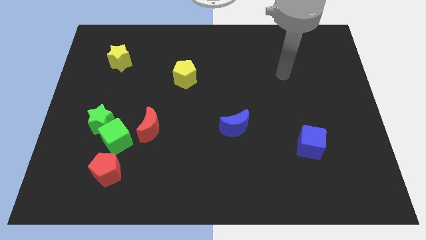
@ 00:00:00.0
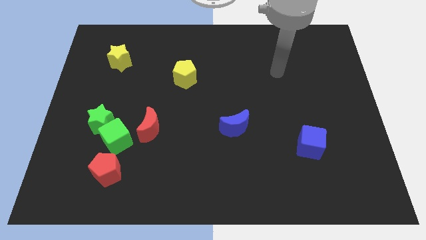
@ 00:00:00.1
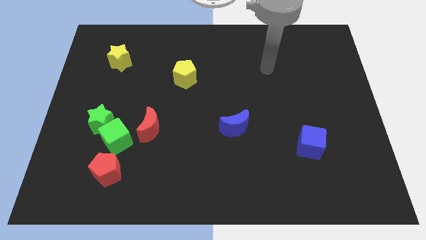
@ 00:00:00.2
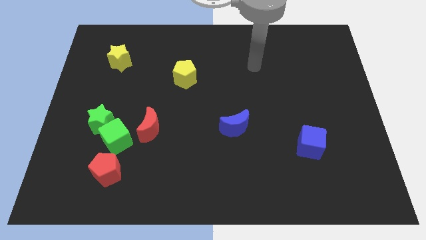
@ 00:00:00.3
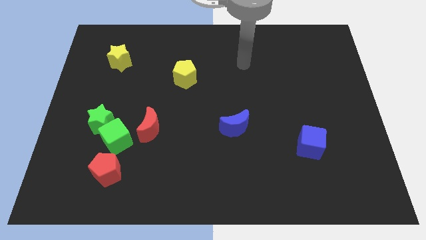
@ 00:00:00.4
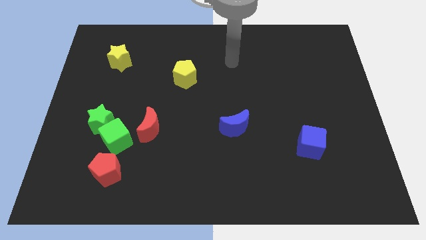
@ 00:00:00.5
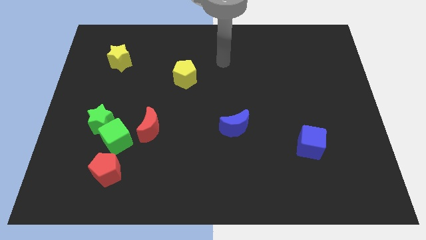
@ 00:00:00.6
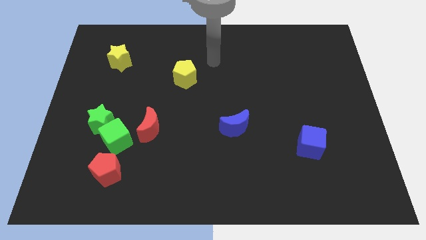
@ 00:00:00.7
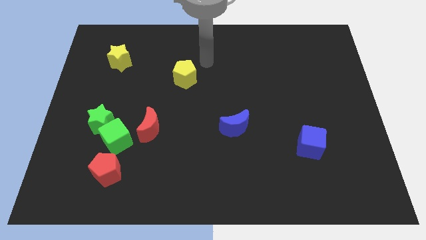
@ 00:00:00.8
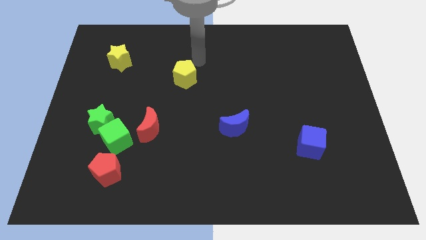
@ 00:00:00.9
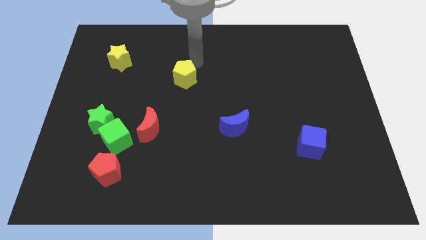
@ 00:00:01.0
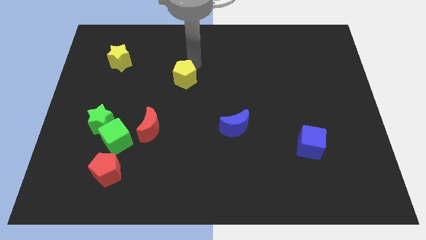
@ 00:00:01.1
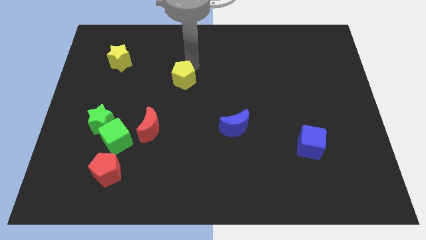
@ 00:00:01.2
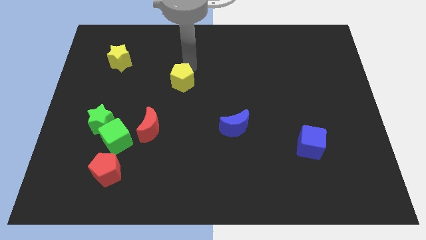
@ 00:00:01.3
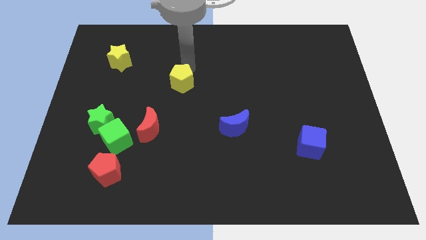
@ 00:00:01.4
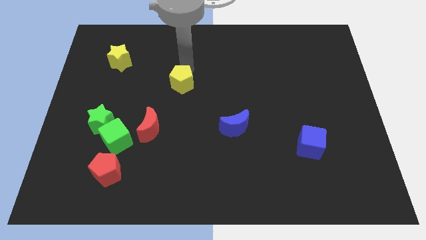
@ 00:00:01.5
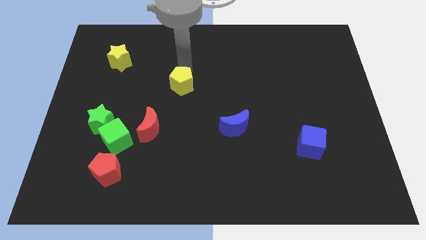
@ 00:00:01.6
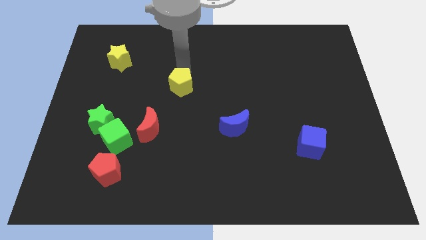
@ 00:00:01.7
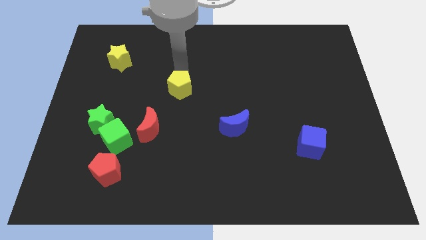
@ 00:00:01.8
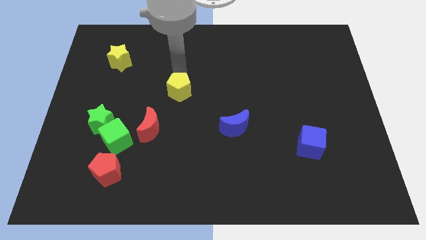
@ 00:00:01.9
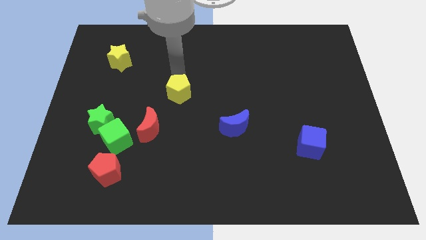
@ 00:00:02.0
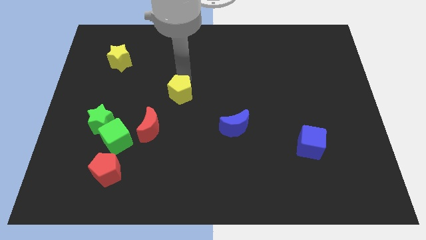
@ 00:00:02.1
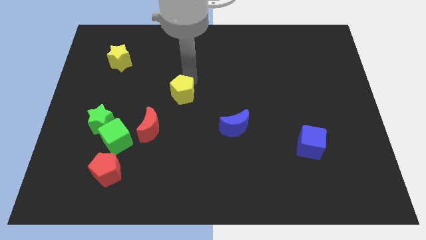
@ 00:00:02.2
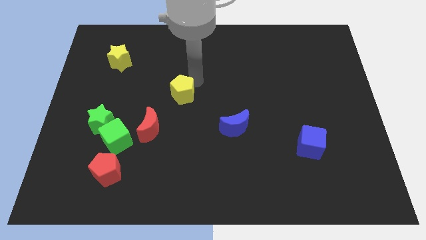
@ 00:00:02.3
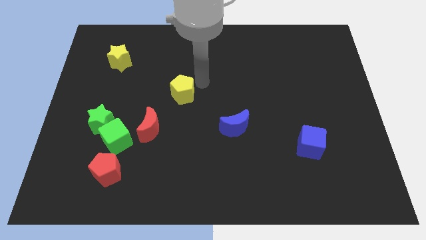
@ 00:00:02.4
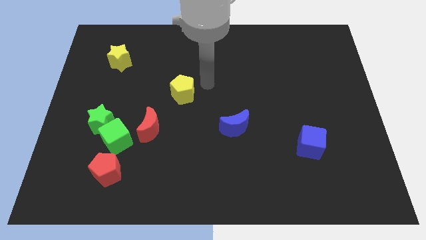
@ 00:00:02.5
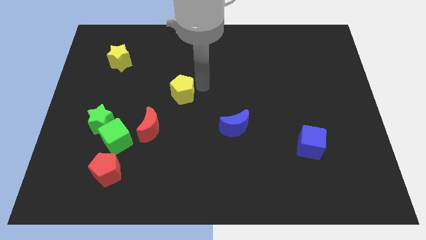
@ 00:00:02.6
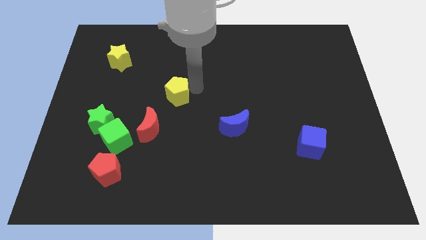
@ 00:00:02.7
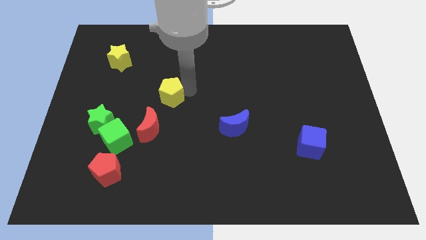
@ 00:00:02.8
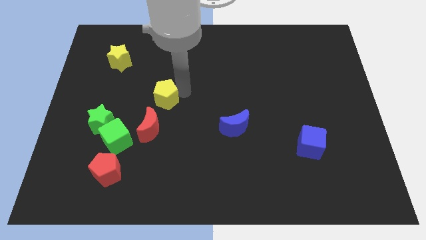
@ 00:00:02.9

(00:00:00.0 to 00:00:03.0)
slightly slide the yellow pentagon downwards and left

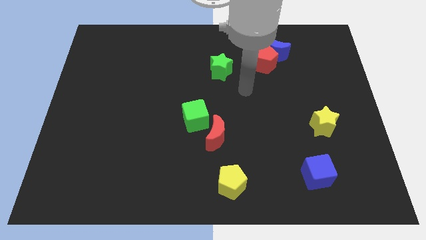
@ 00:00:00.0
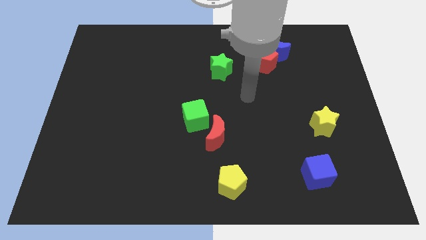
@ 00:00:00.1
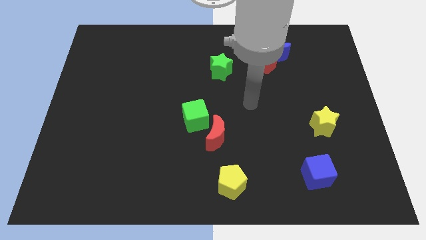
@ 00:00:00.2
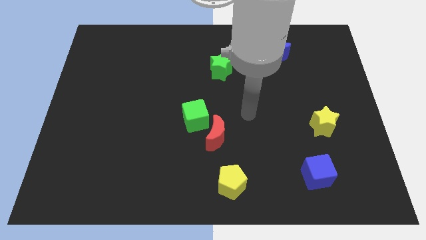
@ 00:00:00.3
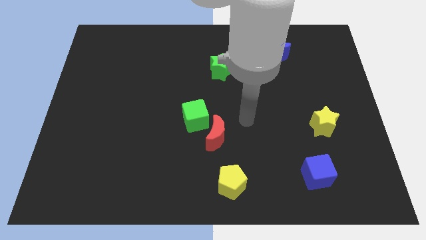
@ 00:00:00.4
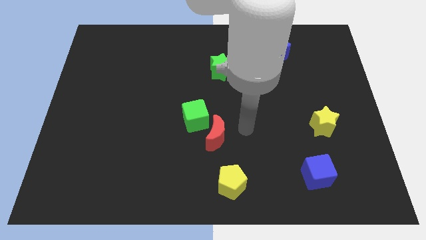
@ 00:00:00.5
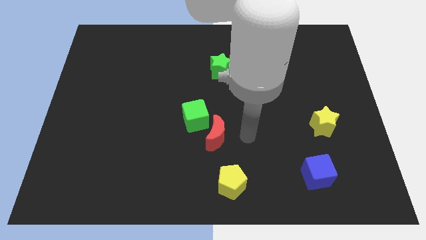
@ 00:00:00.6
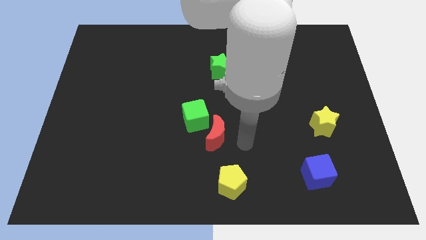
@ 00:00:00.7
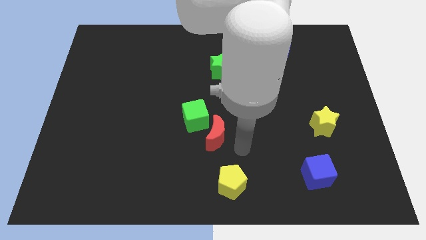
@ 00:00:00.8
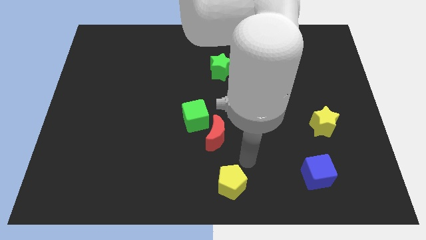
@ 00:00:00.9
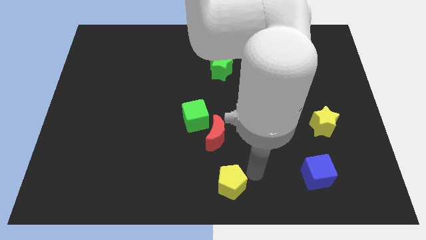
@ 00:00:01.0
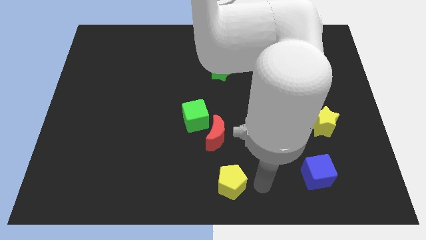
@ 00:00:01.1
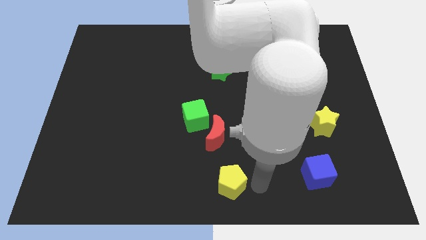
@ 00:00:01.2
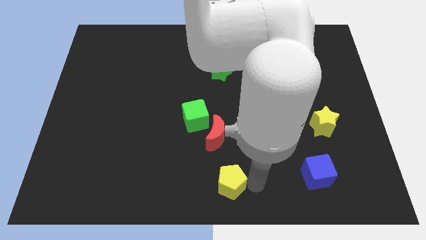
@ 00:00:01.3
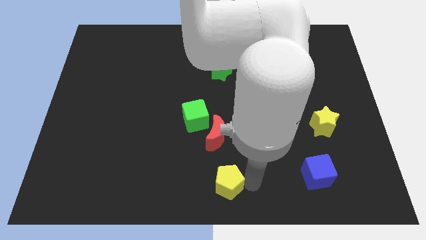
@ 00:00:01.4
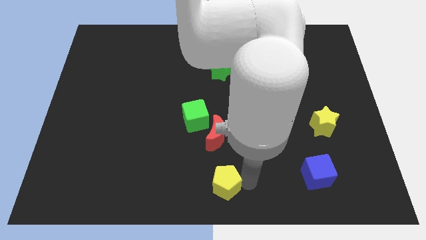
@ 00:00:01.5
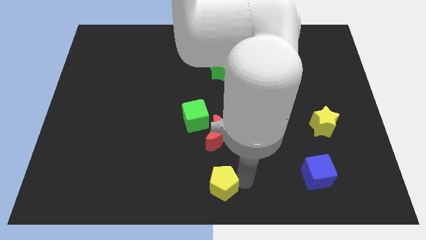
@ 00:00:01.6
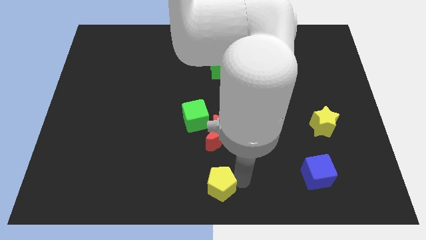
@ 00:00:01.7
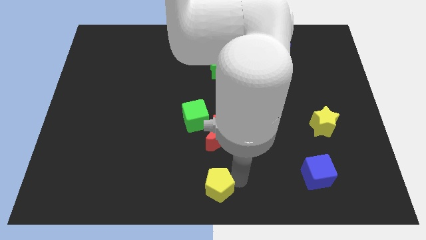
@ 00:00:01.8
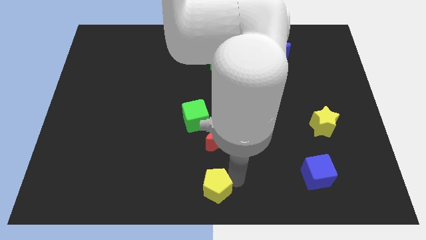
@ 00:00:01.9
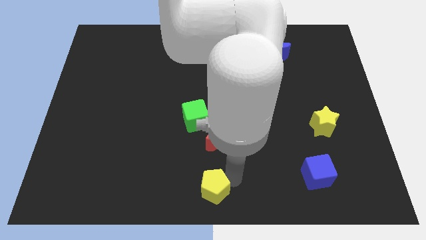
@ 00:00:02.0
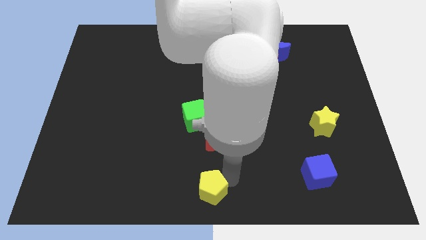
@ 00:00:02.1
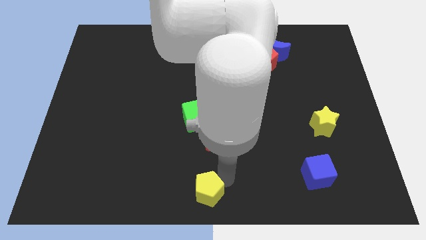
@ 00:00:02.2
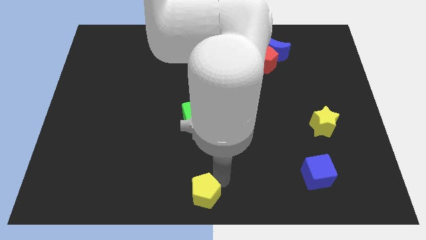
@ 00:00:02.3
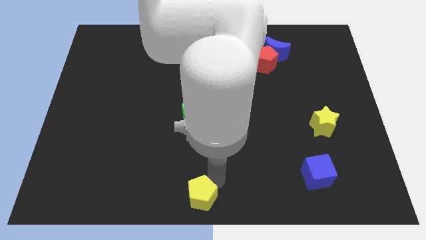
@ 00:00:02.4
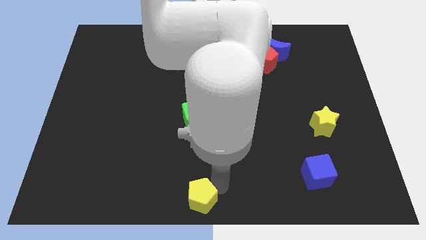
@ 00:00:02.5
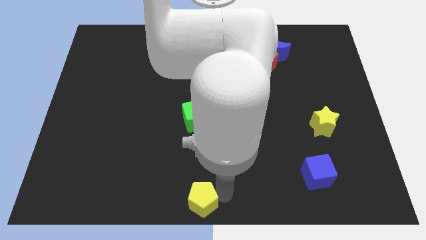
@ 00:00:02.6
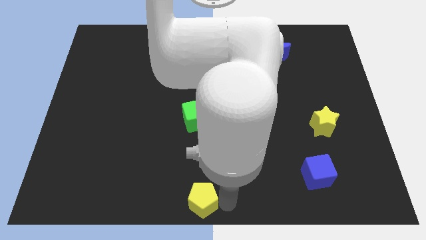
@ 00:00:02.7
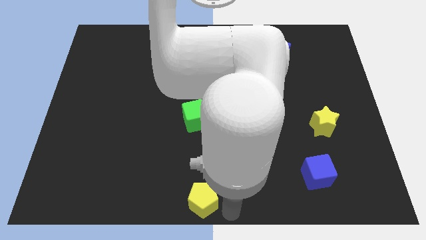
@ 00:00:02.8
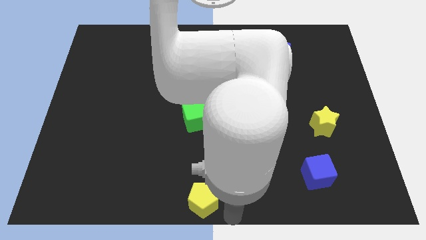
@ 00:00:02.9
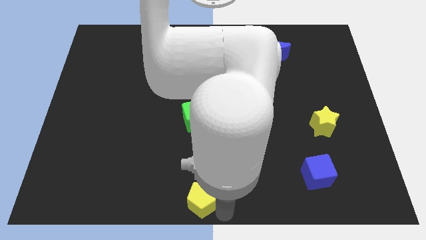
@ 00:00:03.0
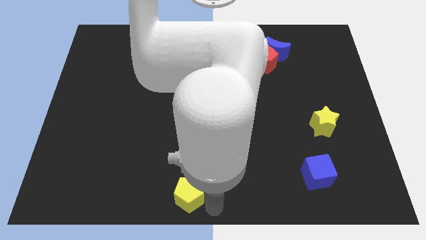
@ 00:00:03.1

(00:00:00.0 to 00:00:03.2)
push the yellow pentagon a little left

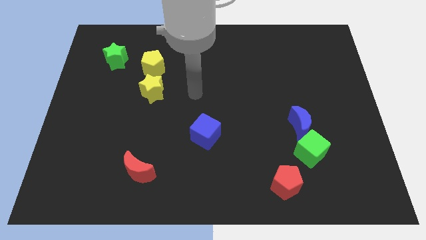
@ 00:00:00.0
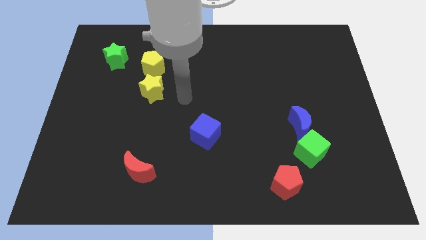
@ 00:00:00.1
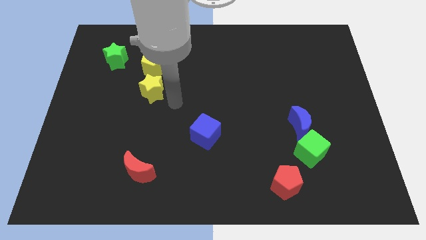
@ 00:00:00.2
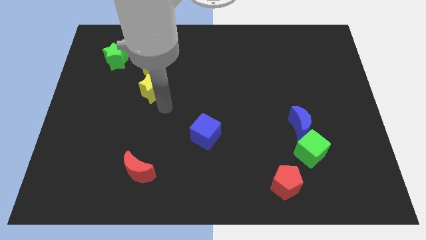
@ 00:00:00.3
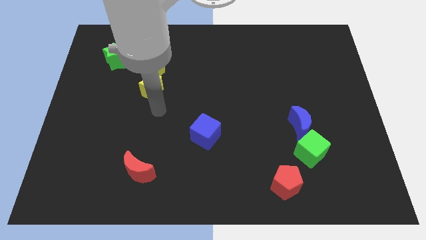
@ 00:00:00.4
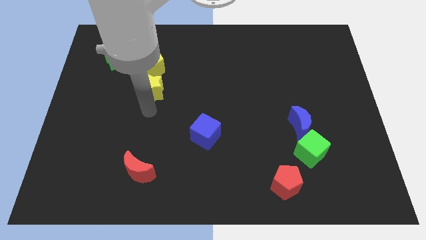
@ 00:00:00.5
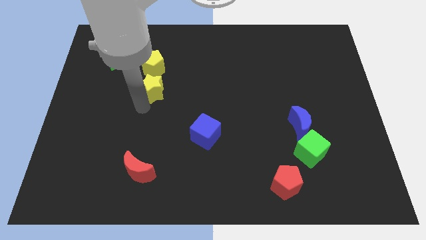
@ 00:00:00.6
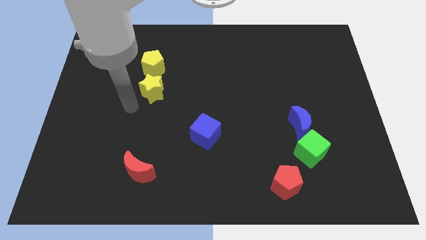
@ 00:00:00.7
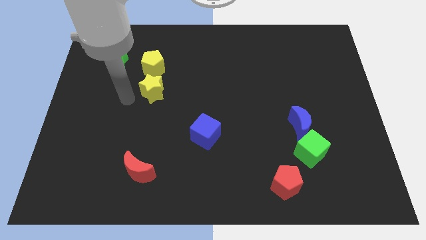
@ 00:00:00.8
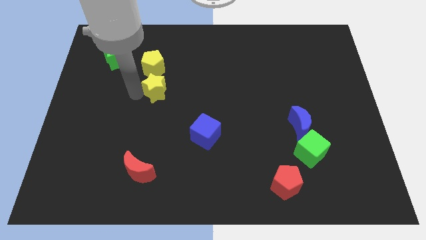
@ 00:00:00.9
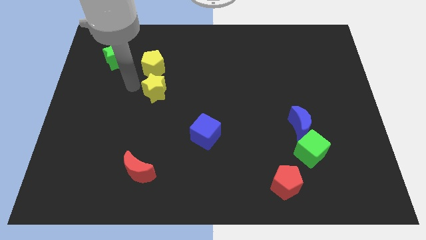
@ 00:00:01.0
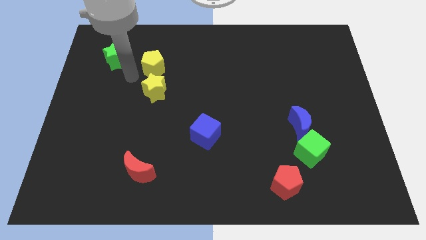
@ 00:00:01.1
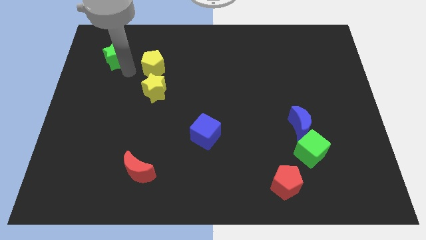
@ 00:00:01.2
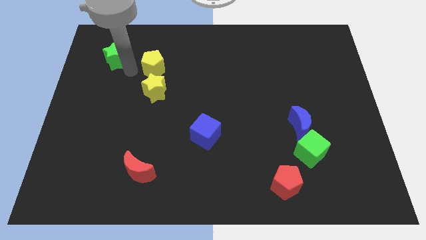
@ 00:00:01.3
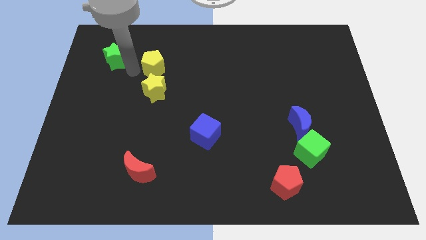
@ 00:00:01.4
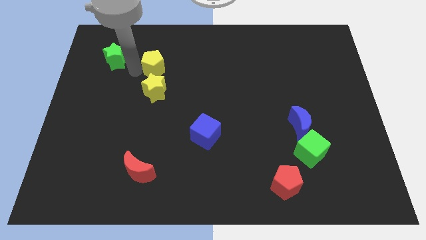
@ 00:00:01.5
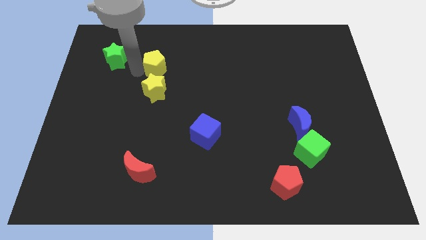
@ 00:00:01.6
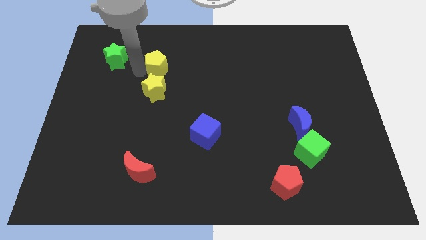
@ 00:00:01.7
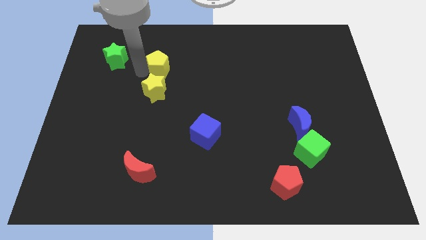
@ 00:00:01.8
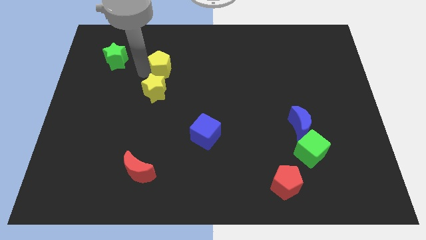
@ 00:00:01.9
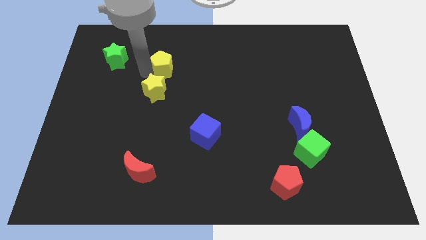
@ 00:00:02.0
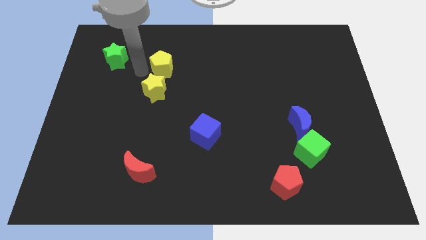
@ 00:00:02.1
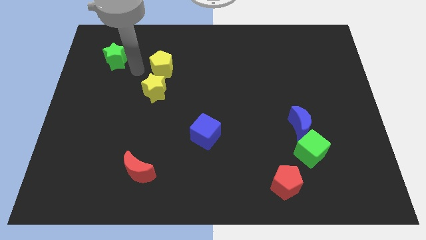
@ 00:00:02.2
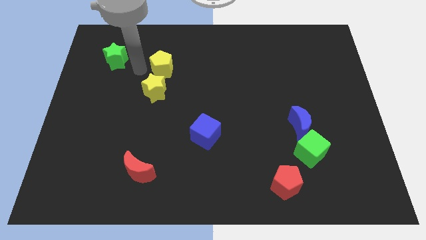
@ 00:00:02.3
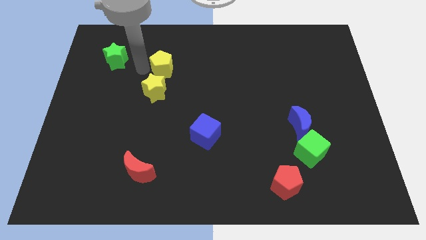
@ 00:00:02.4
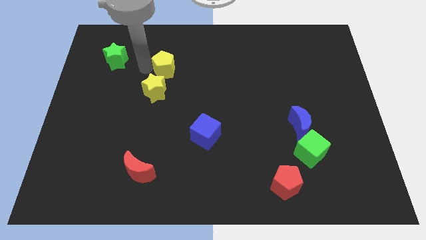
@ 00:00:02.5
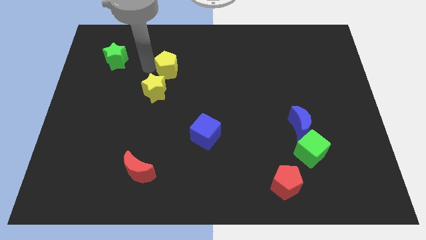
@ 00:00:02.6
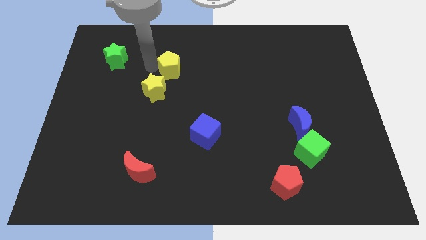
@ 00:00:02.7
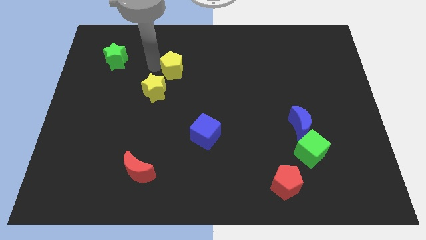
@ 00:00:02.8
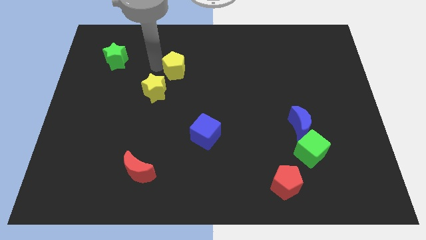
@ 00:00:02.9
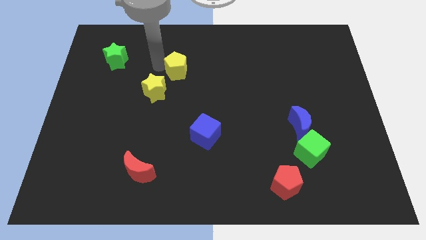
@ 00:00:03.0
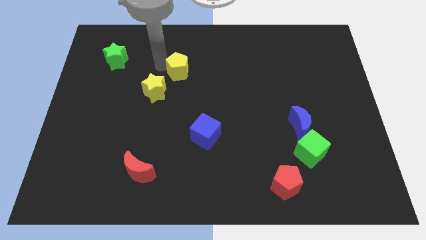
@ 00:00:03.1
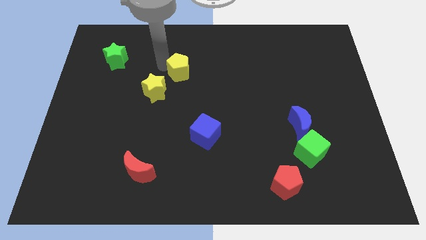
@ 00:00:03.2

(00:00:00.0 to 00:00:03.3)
slightly push the yellow pentagon right
